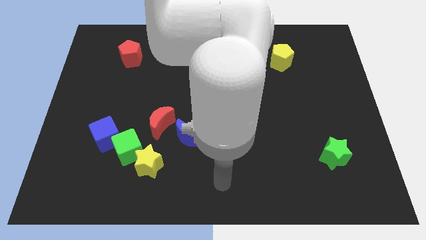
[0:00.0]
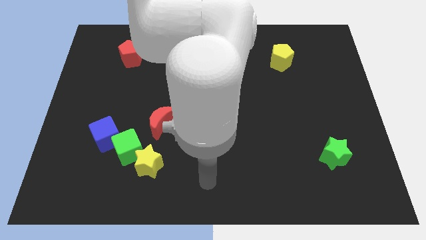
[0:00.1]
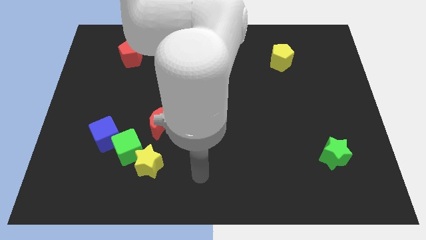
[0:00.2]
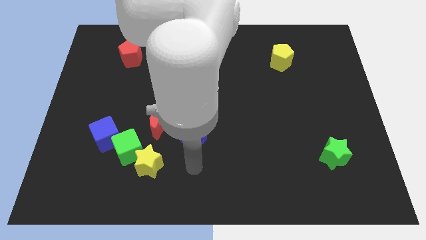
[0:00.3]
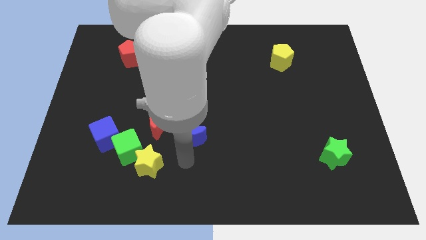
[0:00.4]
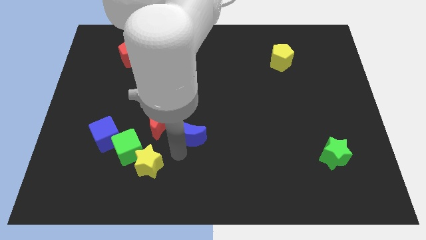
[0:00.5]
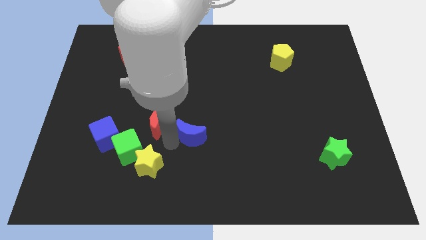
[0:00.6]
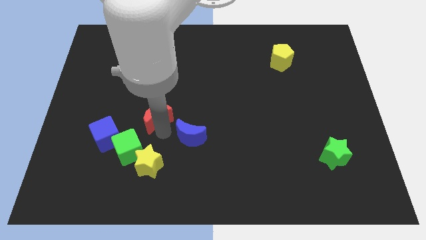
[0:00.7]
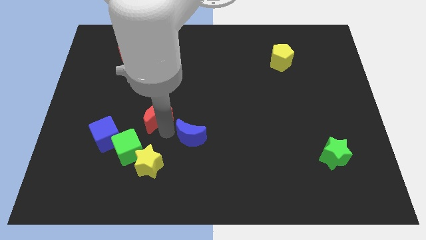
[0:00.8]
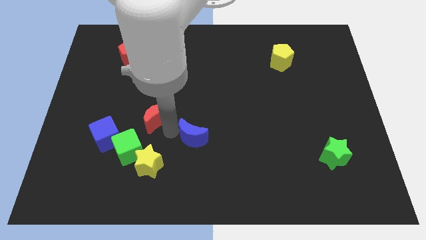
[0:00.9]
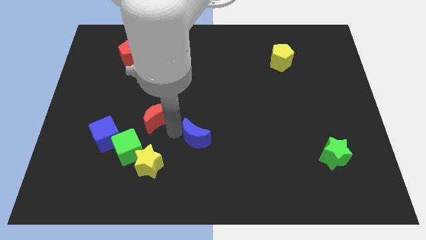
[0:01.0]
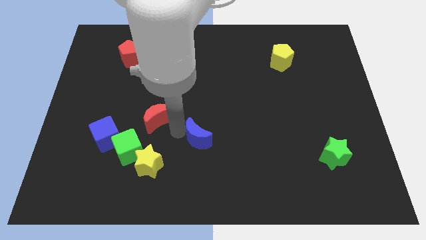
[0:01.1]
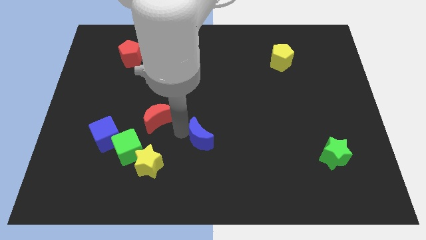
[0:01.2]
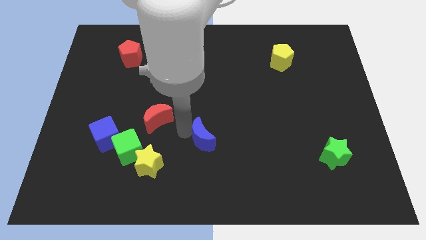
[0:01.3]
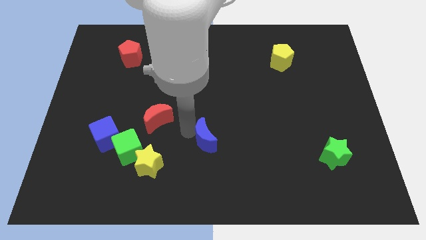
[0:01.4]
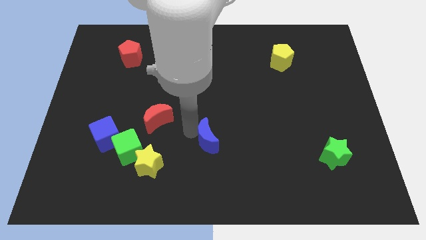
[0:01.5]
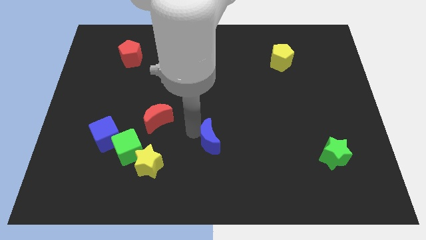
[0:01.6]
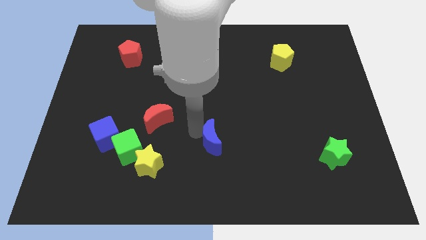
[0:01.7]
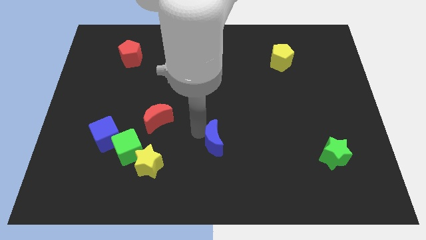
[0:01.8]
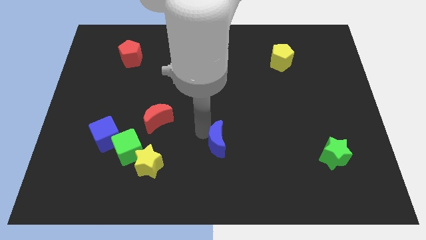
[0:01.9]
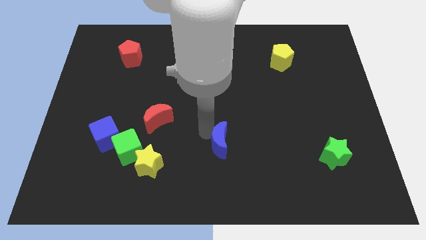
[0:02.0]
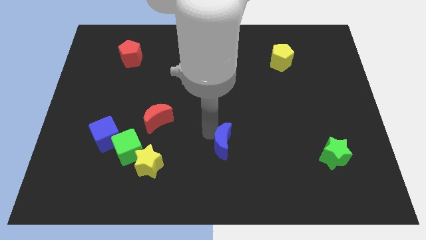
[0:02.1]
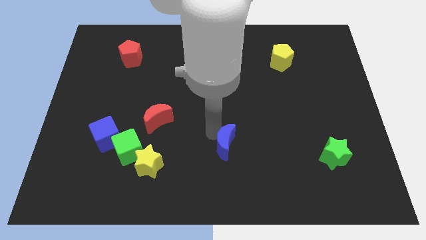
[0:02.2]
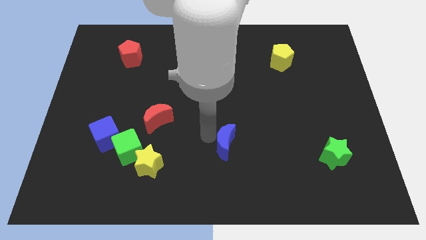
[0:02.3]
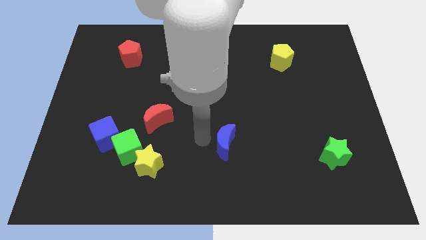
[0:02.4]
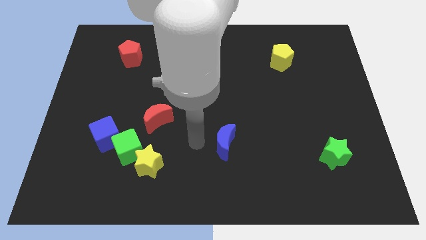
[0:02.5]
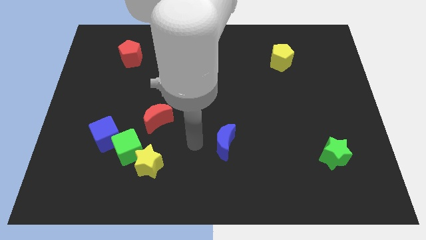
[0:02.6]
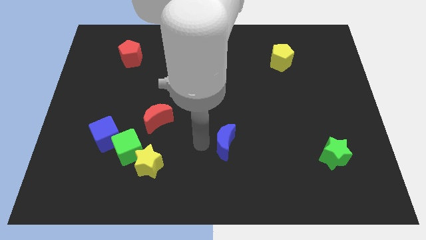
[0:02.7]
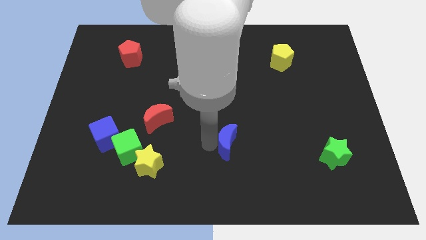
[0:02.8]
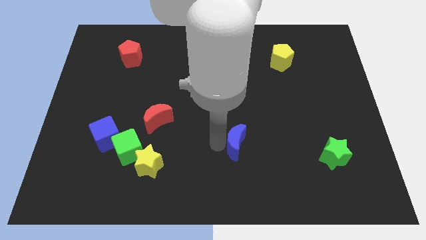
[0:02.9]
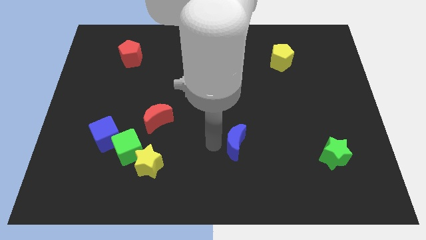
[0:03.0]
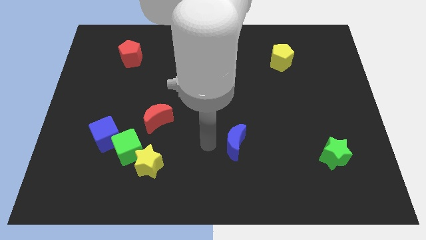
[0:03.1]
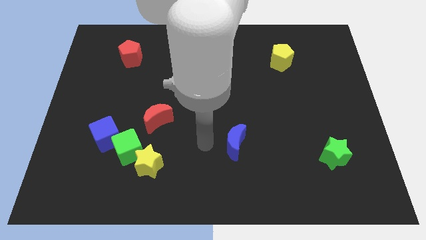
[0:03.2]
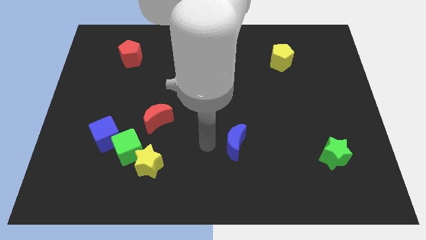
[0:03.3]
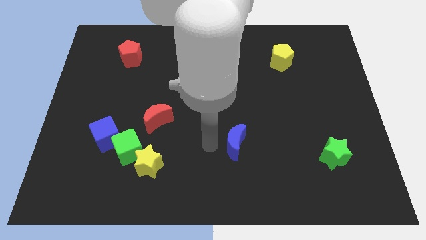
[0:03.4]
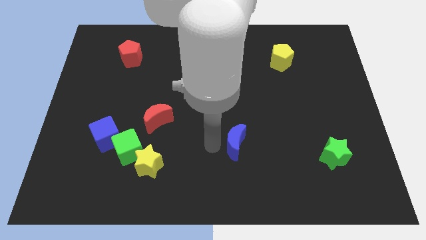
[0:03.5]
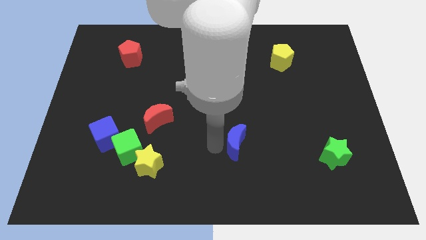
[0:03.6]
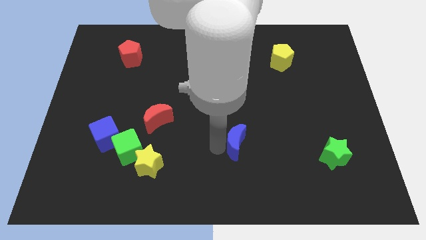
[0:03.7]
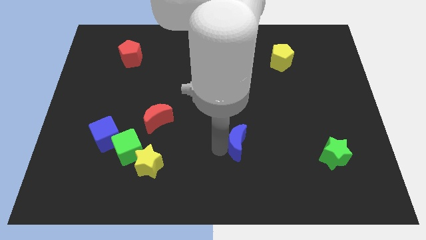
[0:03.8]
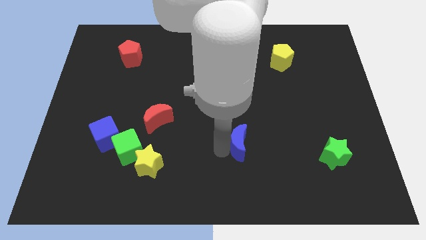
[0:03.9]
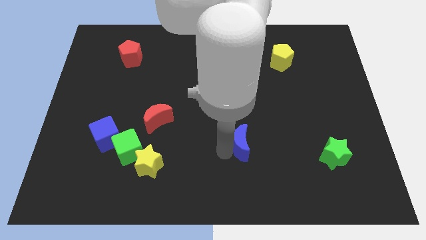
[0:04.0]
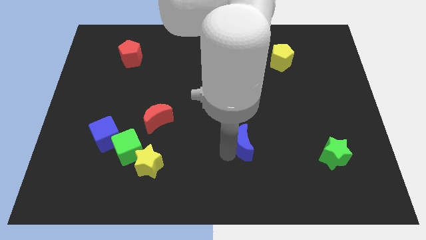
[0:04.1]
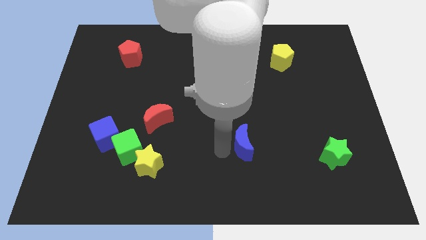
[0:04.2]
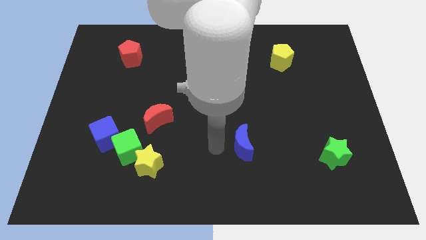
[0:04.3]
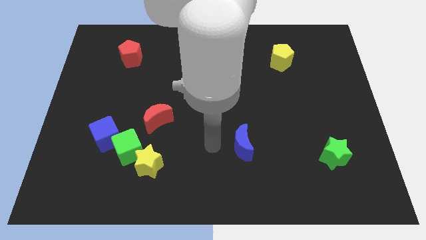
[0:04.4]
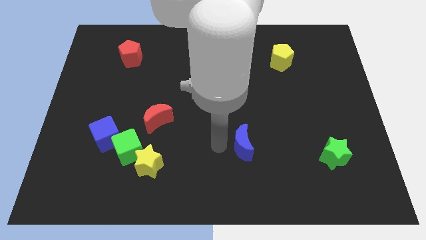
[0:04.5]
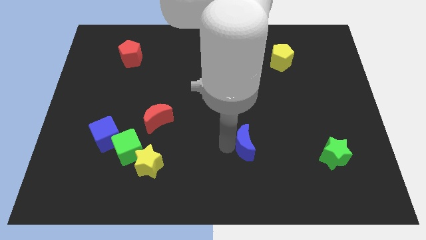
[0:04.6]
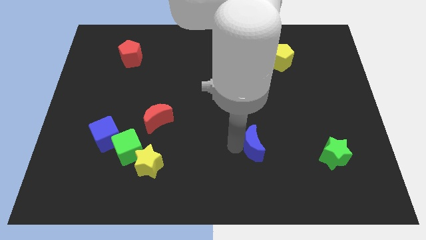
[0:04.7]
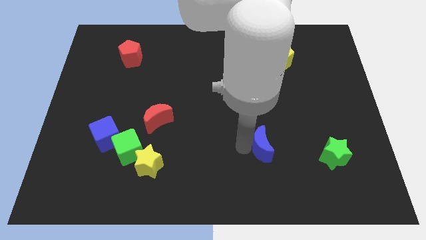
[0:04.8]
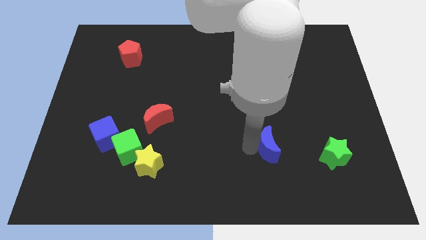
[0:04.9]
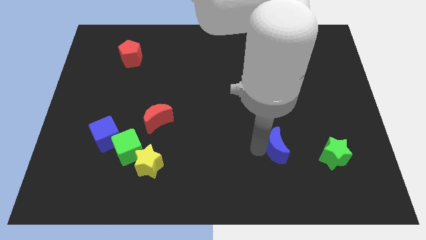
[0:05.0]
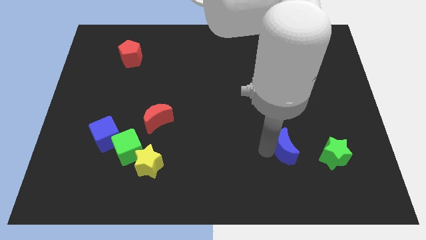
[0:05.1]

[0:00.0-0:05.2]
move the blue moon to the right

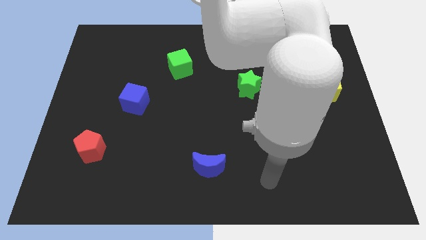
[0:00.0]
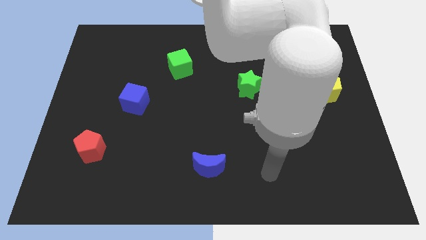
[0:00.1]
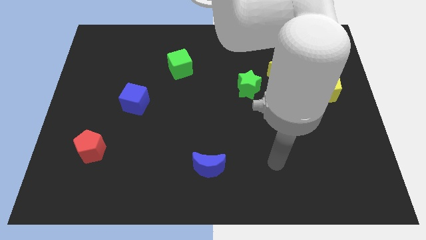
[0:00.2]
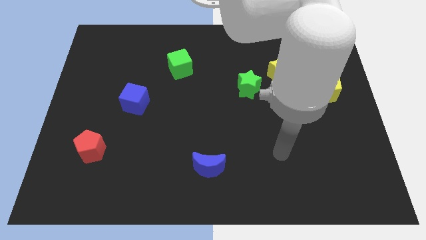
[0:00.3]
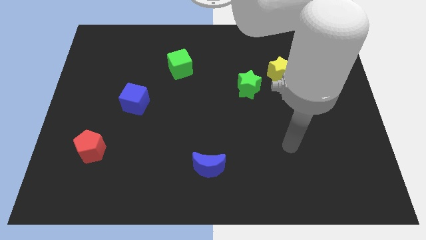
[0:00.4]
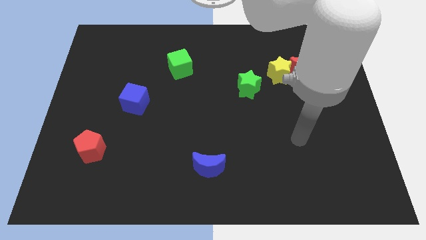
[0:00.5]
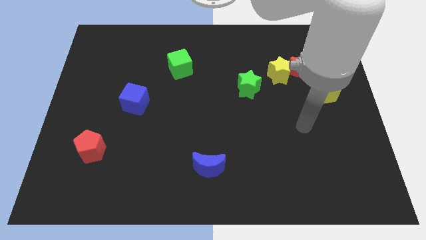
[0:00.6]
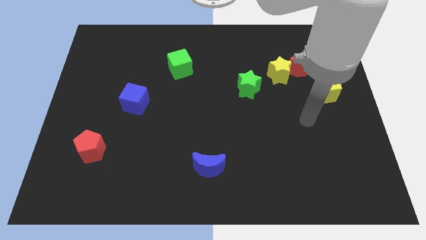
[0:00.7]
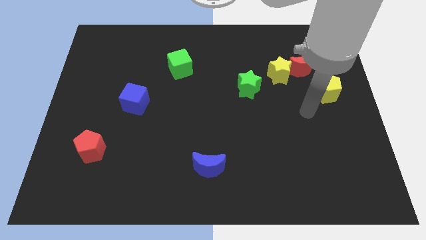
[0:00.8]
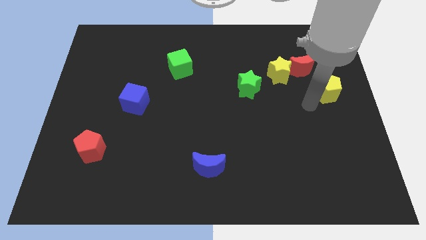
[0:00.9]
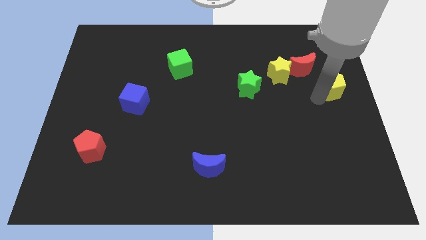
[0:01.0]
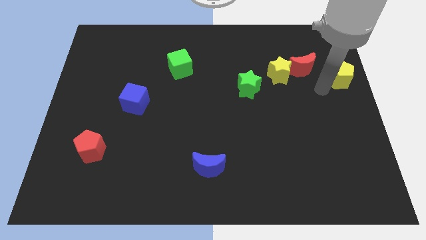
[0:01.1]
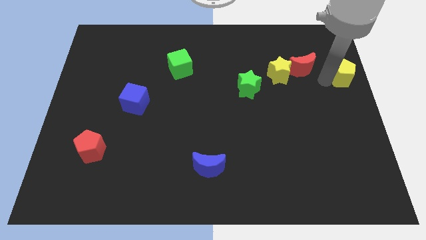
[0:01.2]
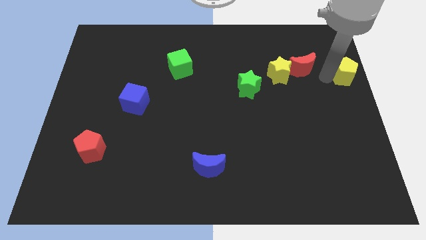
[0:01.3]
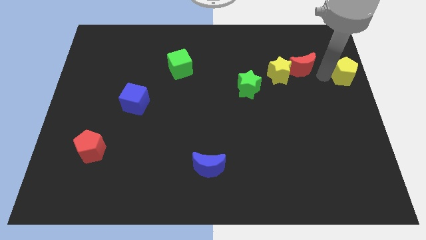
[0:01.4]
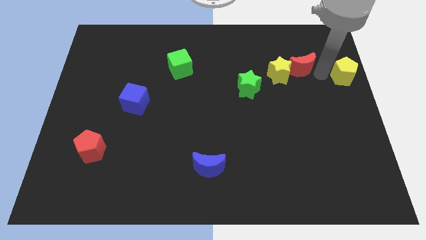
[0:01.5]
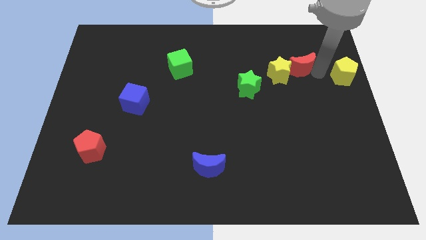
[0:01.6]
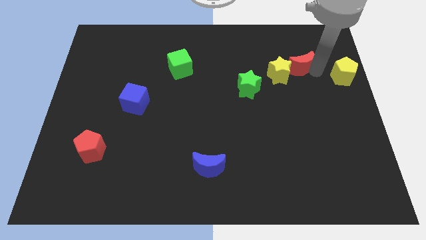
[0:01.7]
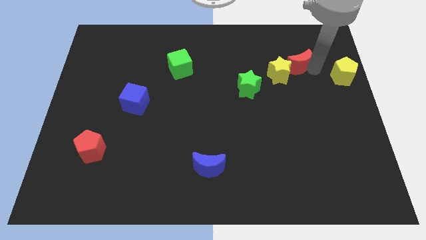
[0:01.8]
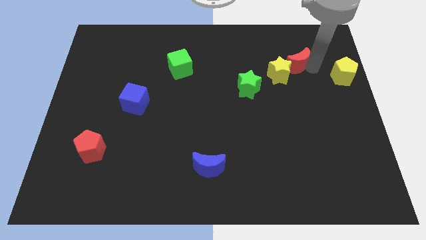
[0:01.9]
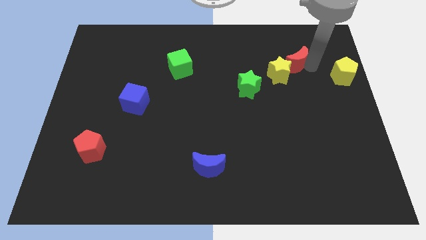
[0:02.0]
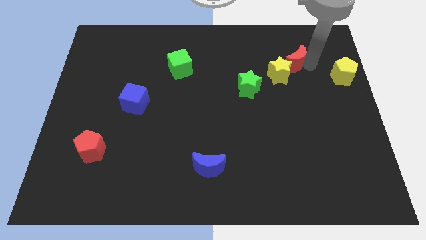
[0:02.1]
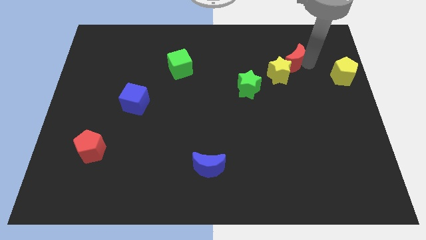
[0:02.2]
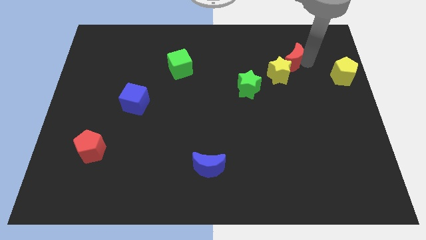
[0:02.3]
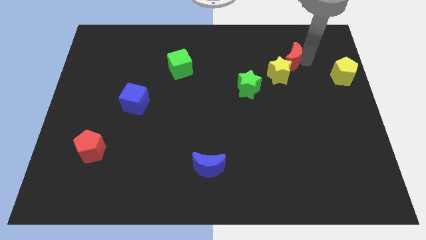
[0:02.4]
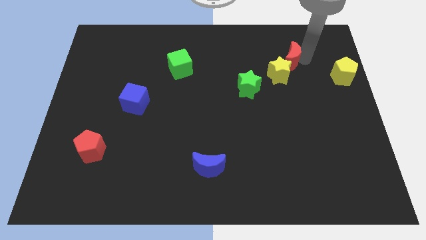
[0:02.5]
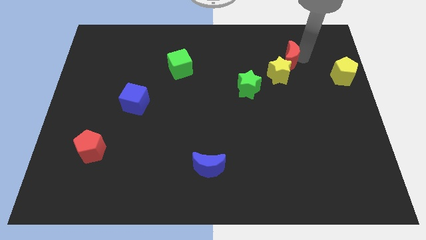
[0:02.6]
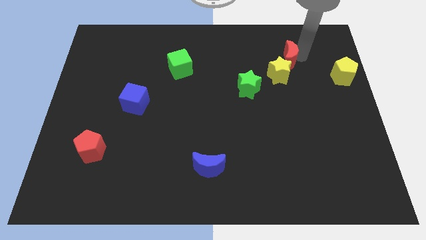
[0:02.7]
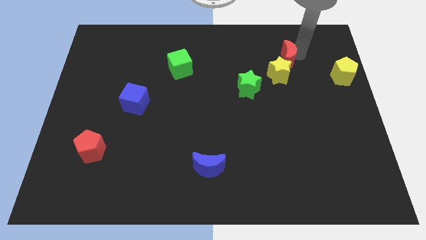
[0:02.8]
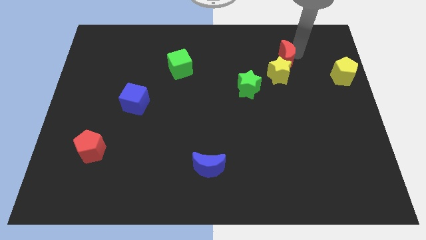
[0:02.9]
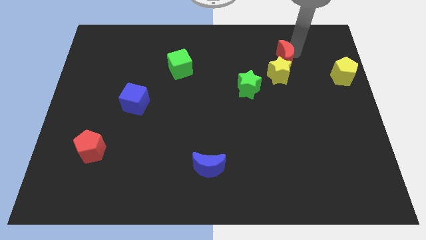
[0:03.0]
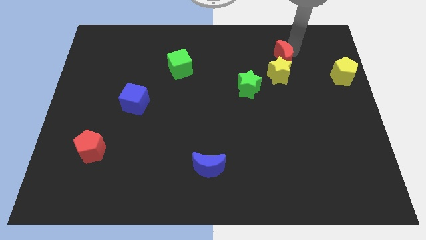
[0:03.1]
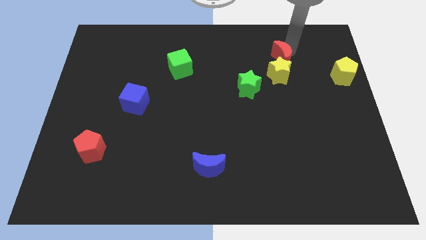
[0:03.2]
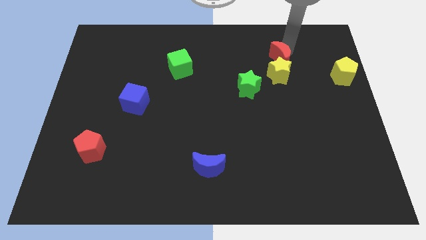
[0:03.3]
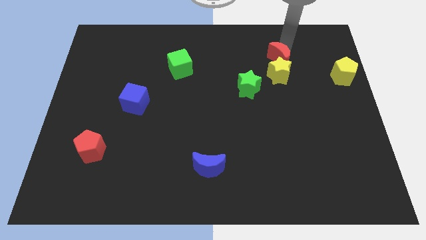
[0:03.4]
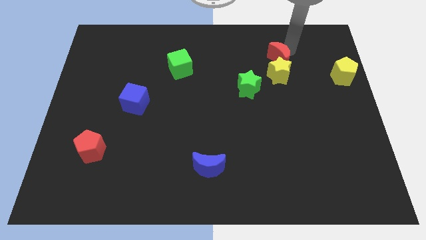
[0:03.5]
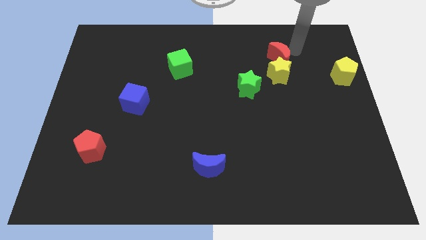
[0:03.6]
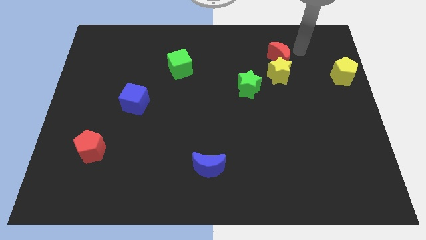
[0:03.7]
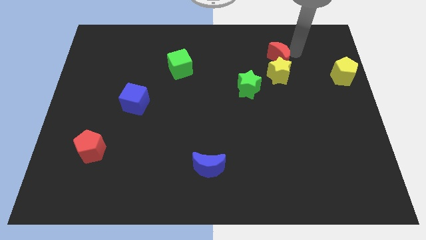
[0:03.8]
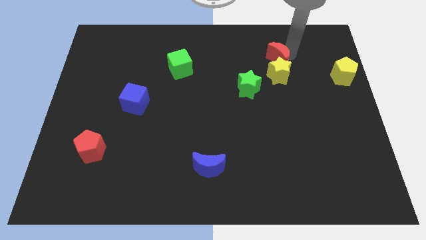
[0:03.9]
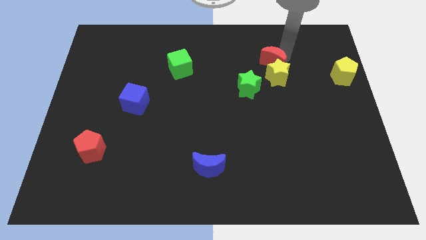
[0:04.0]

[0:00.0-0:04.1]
push the red moon somewhat to the left
